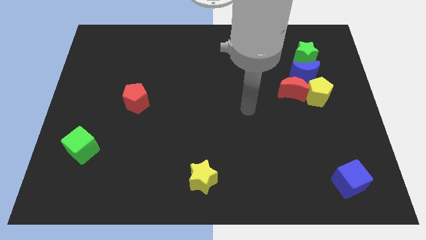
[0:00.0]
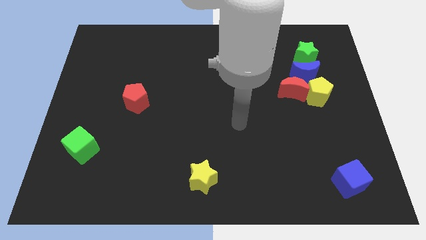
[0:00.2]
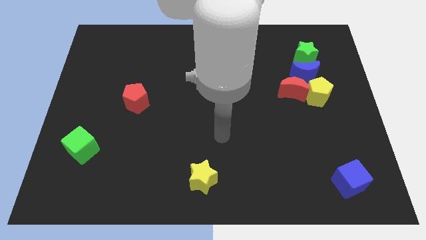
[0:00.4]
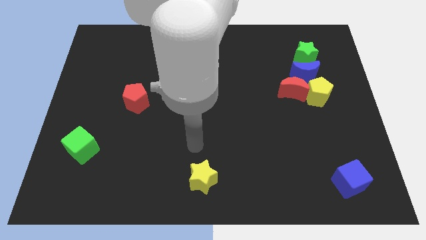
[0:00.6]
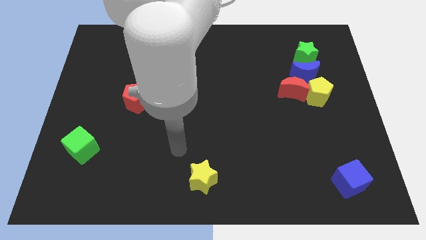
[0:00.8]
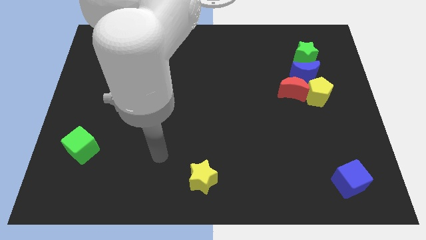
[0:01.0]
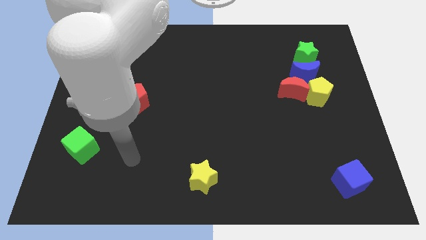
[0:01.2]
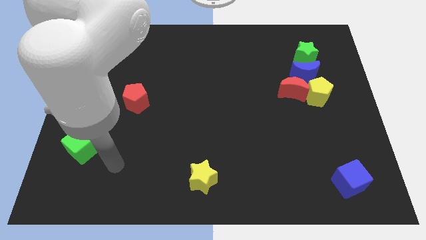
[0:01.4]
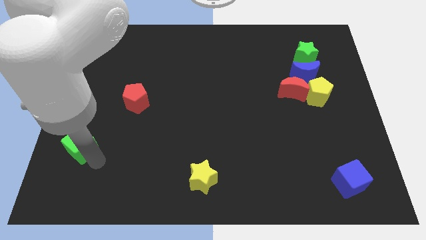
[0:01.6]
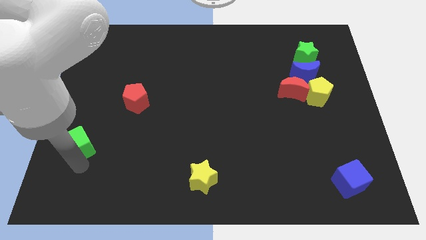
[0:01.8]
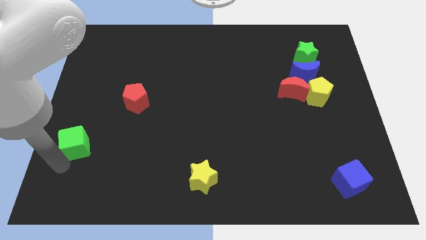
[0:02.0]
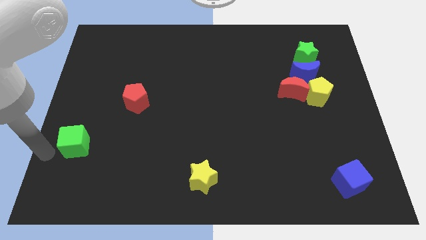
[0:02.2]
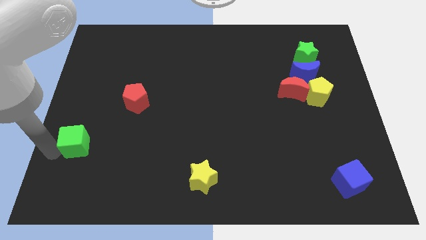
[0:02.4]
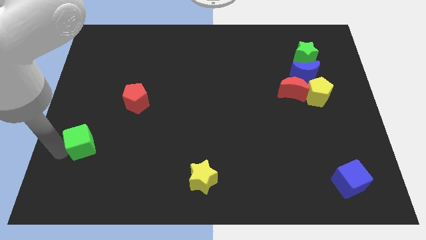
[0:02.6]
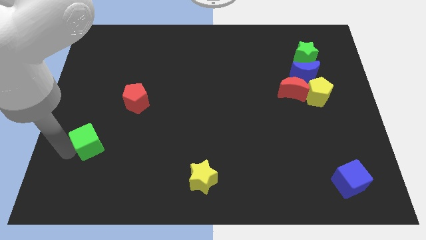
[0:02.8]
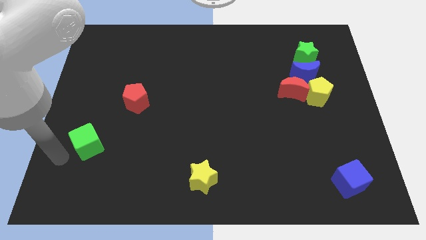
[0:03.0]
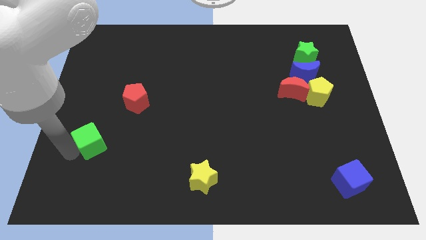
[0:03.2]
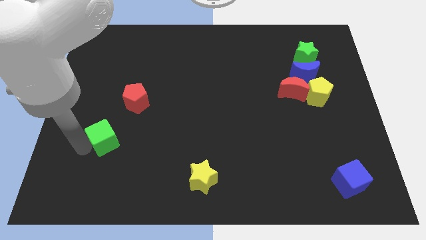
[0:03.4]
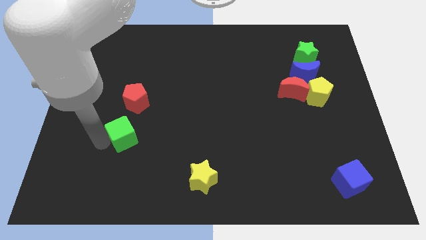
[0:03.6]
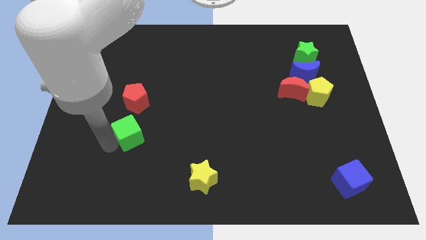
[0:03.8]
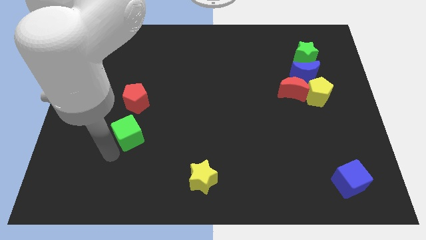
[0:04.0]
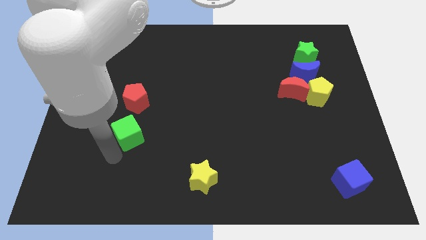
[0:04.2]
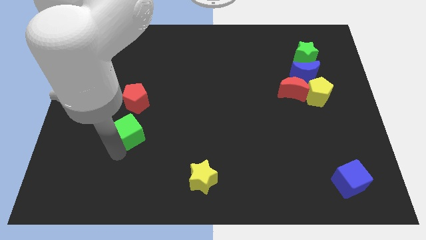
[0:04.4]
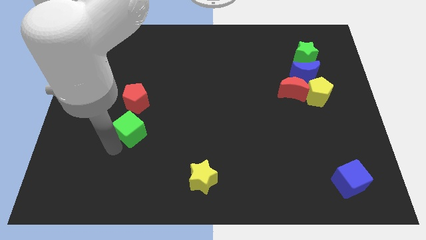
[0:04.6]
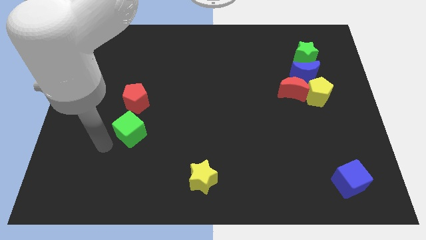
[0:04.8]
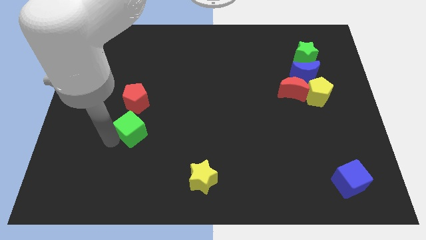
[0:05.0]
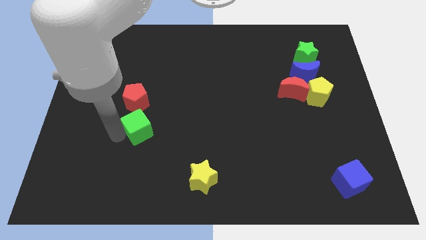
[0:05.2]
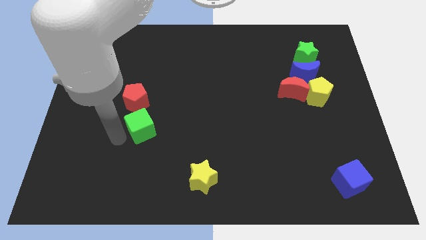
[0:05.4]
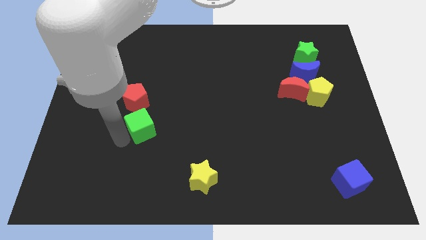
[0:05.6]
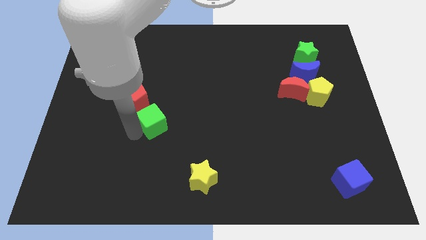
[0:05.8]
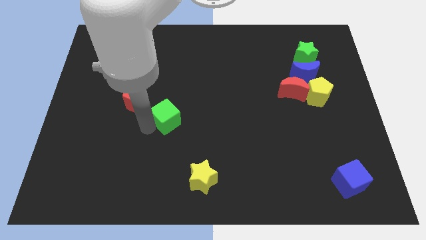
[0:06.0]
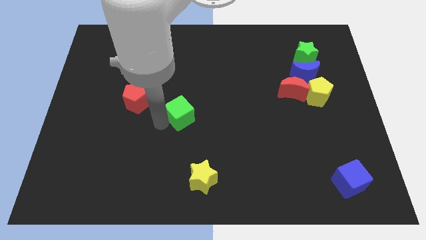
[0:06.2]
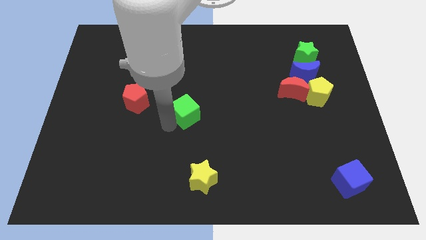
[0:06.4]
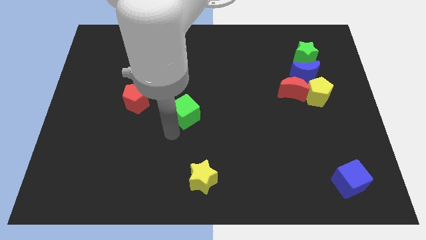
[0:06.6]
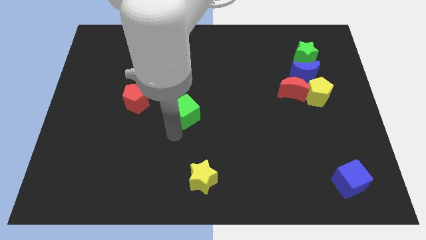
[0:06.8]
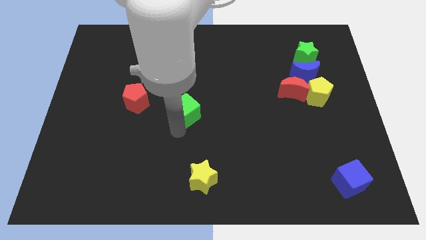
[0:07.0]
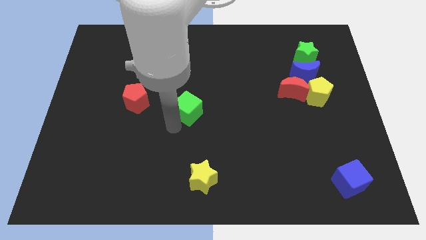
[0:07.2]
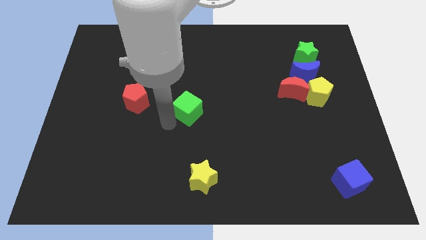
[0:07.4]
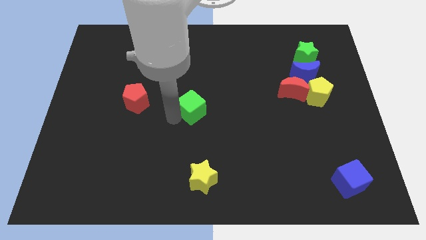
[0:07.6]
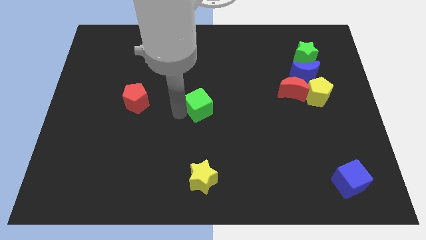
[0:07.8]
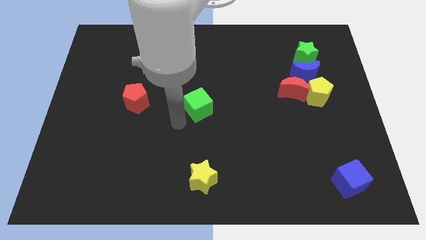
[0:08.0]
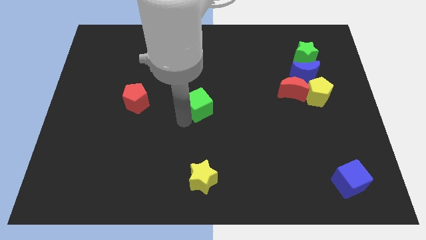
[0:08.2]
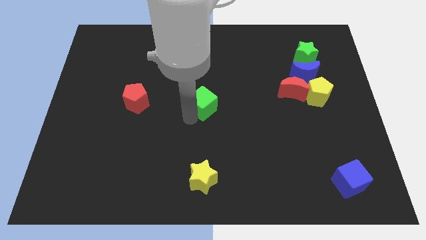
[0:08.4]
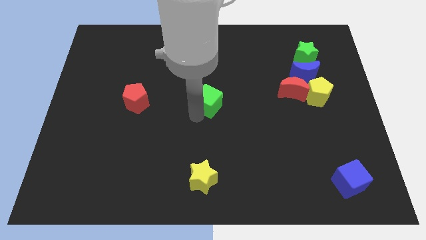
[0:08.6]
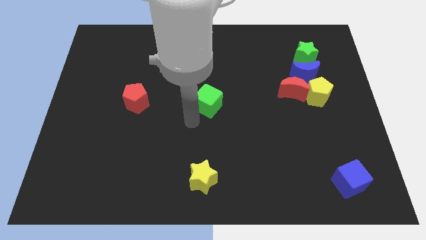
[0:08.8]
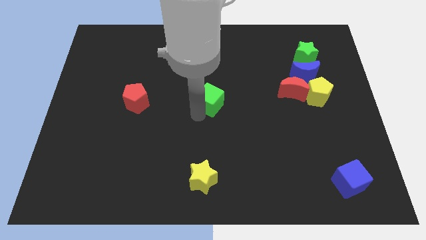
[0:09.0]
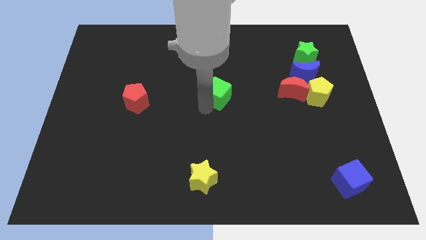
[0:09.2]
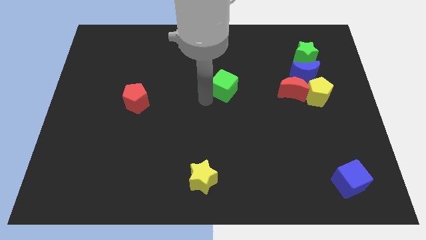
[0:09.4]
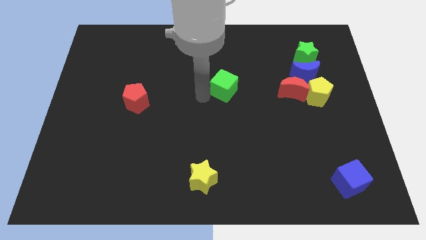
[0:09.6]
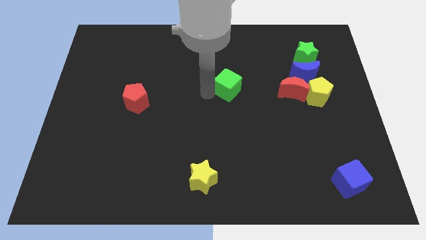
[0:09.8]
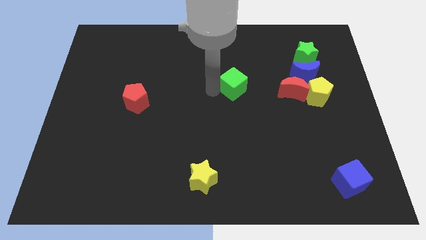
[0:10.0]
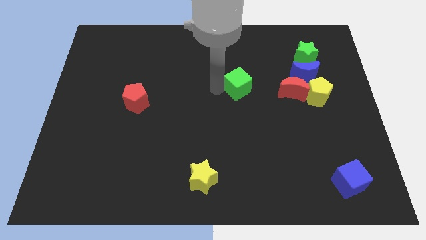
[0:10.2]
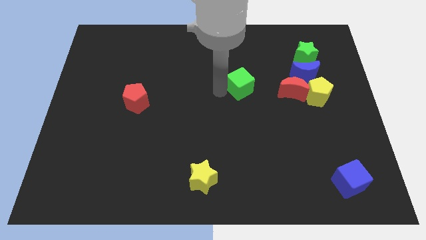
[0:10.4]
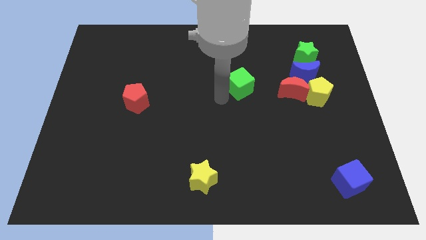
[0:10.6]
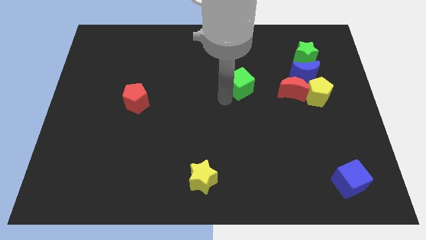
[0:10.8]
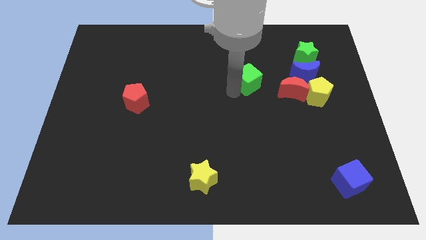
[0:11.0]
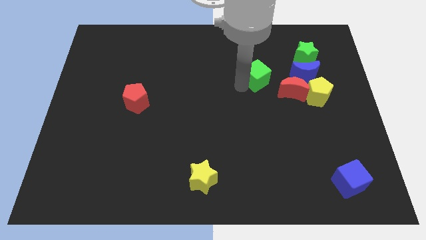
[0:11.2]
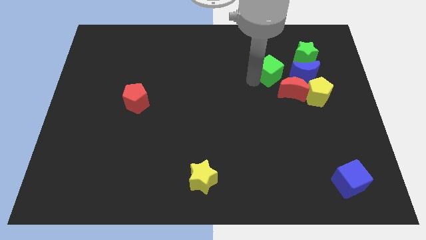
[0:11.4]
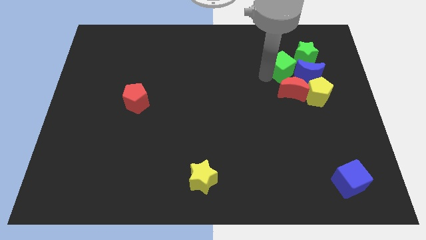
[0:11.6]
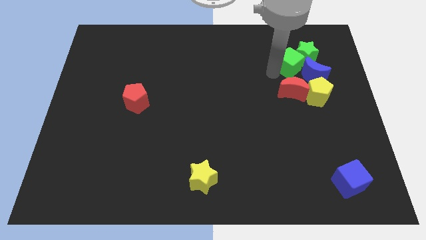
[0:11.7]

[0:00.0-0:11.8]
push the green cube to the green star

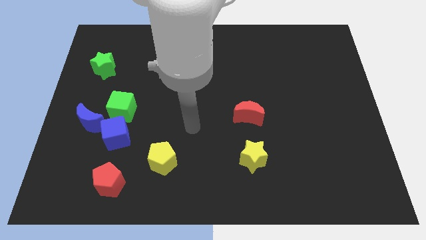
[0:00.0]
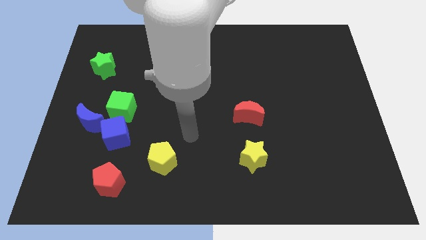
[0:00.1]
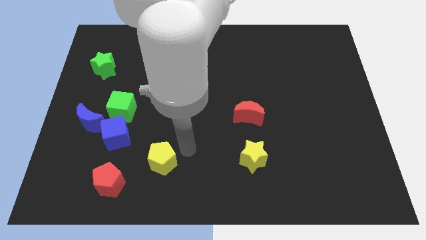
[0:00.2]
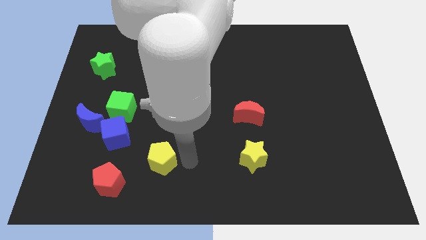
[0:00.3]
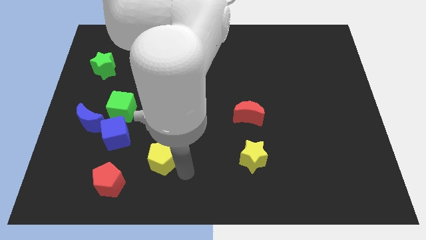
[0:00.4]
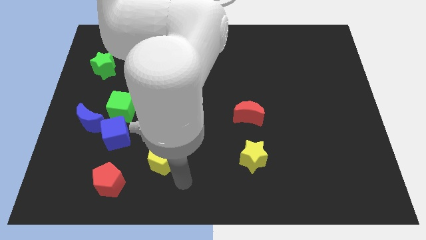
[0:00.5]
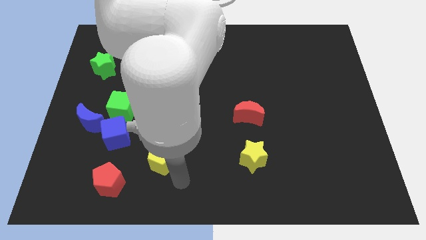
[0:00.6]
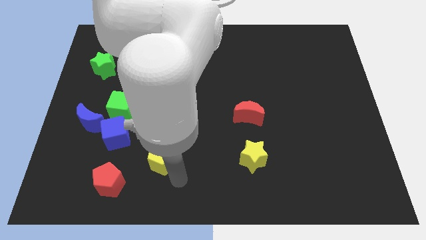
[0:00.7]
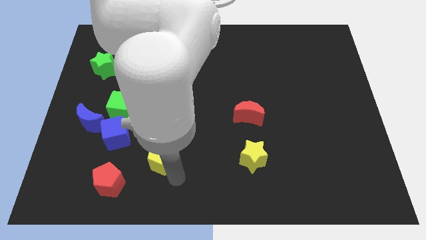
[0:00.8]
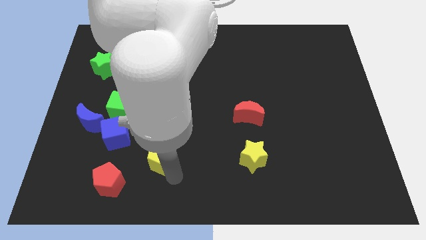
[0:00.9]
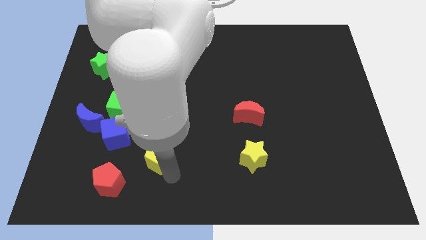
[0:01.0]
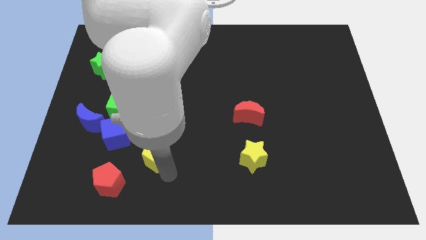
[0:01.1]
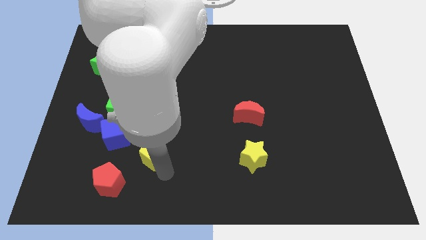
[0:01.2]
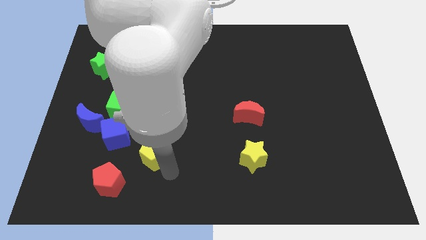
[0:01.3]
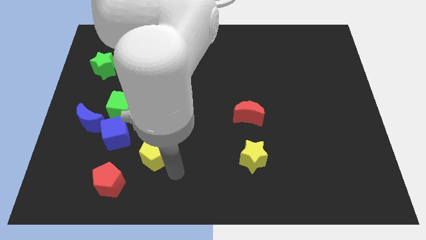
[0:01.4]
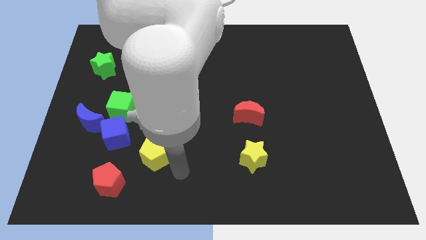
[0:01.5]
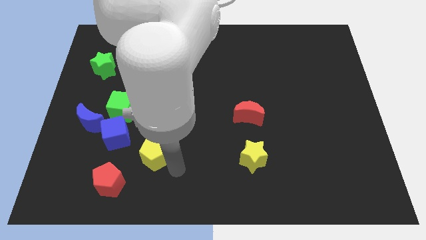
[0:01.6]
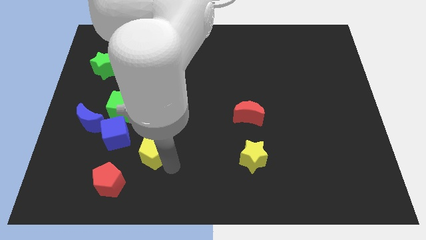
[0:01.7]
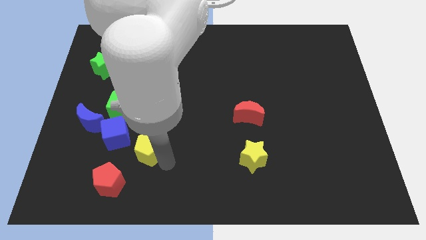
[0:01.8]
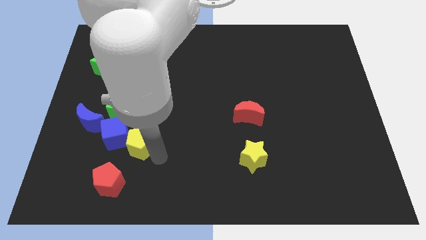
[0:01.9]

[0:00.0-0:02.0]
push the yellow pentagon to the blue cube
